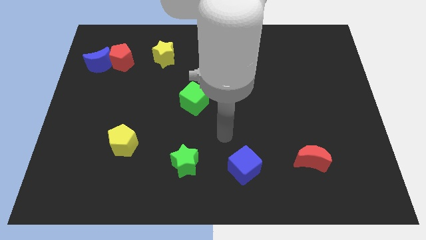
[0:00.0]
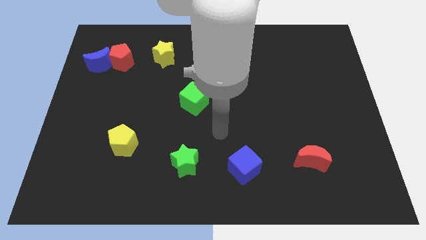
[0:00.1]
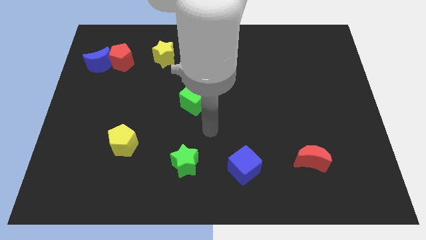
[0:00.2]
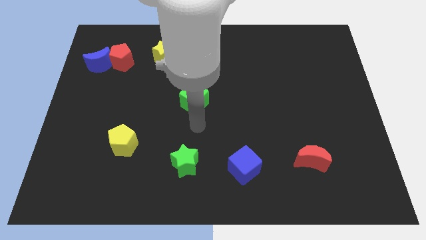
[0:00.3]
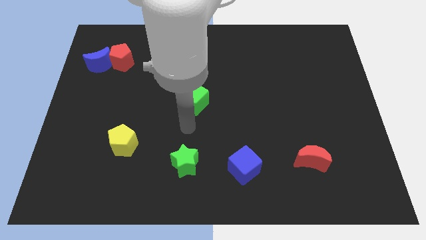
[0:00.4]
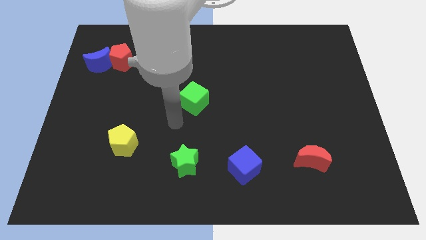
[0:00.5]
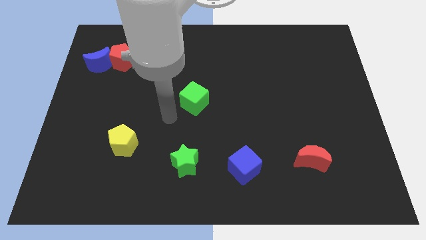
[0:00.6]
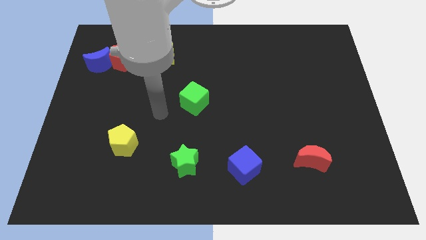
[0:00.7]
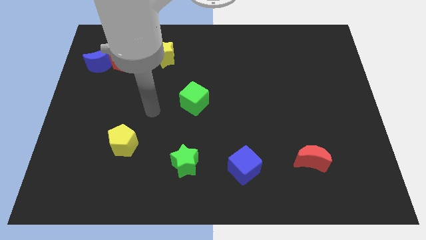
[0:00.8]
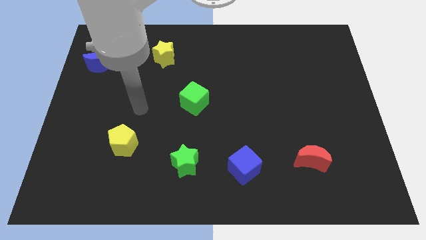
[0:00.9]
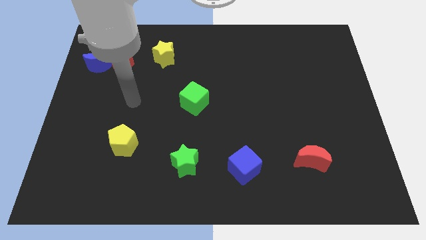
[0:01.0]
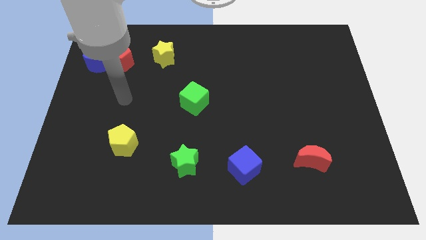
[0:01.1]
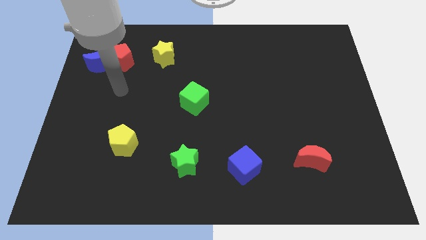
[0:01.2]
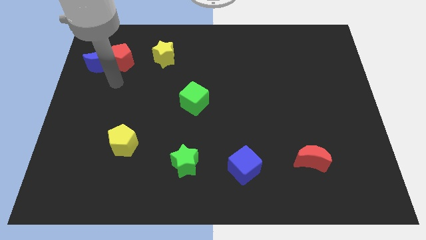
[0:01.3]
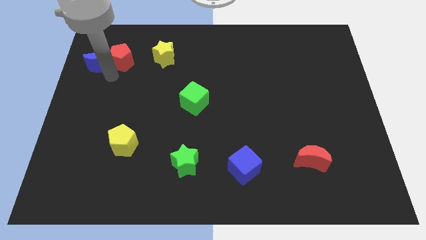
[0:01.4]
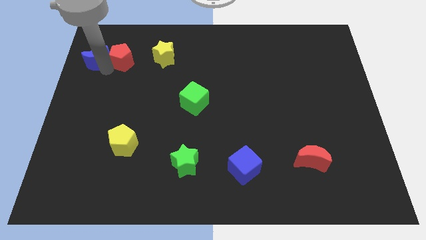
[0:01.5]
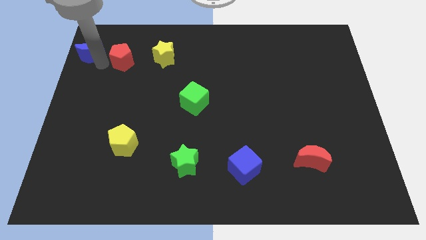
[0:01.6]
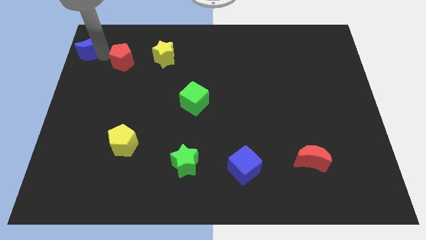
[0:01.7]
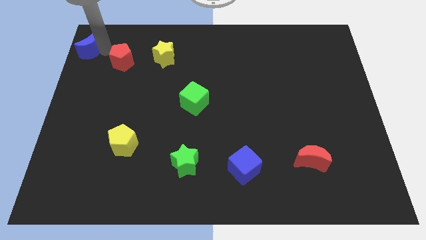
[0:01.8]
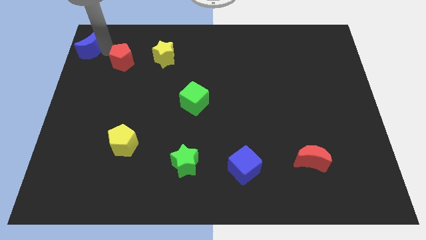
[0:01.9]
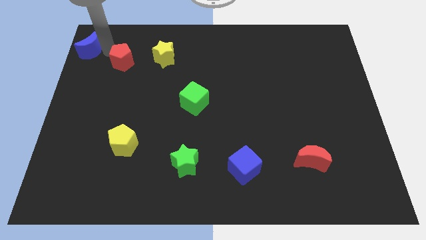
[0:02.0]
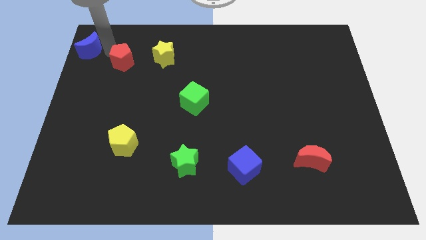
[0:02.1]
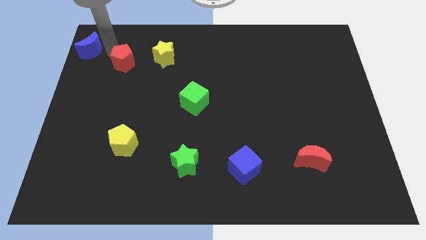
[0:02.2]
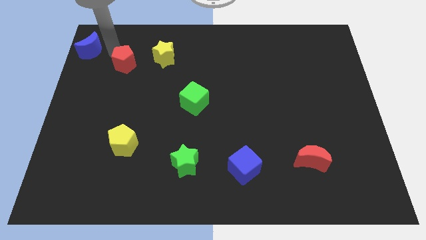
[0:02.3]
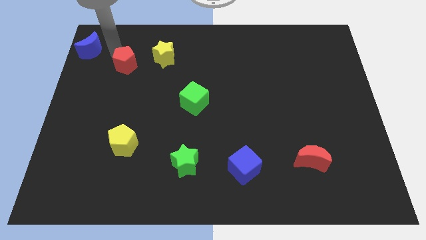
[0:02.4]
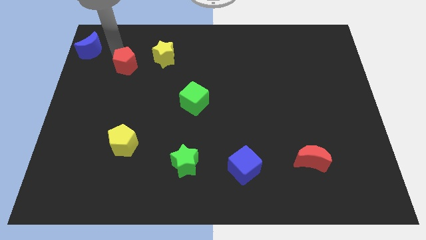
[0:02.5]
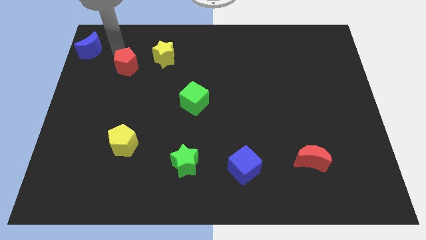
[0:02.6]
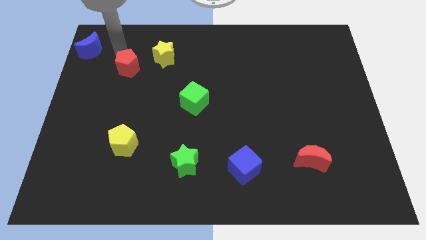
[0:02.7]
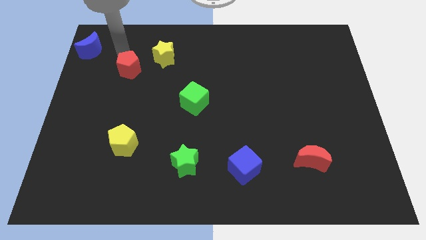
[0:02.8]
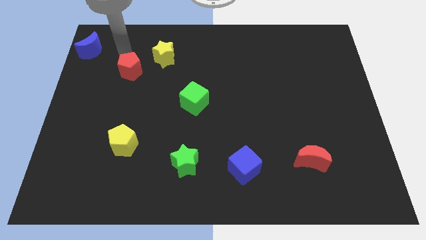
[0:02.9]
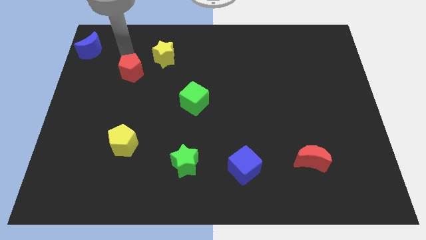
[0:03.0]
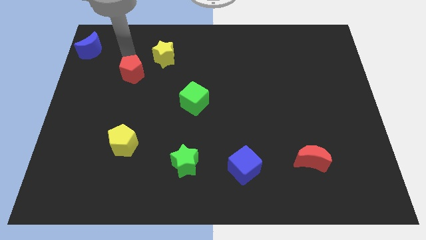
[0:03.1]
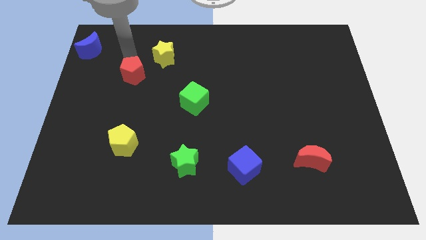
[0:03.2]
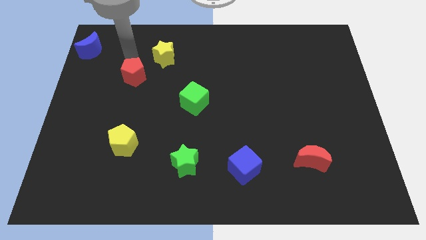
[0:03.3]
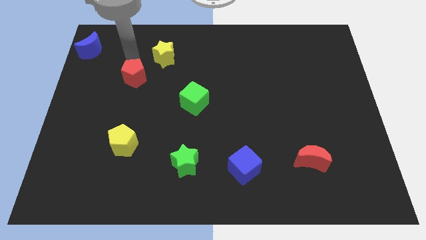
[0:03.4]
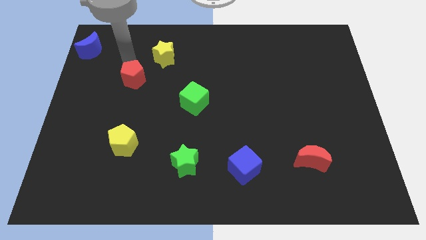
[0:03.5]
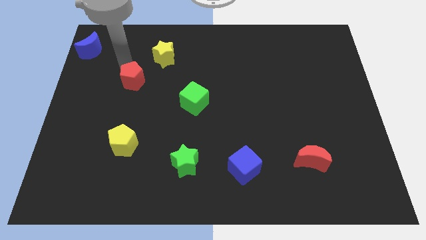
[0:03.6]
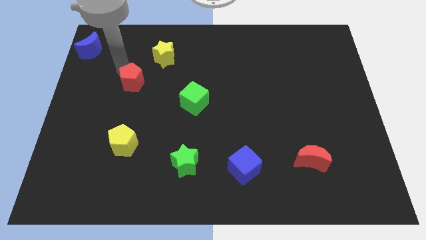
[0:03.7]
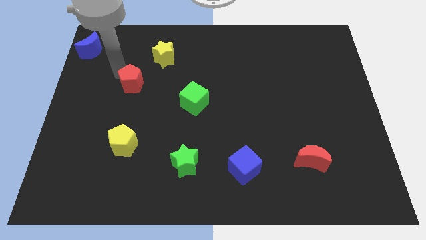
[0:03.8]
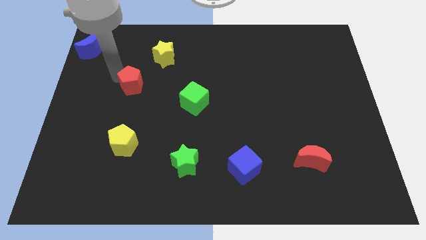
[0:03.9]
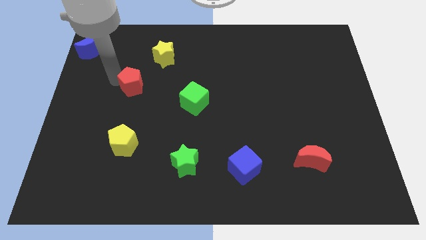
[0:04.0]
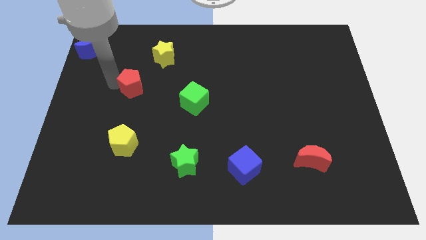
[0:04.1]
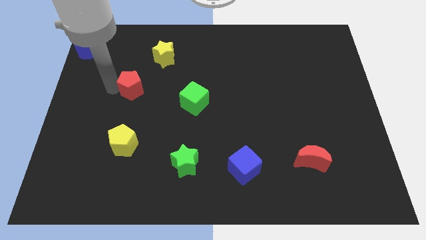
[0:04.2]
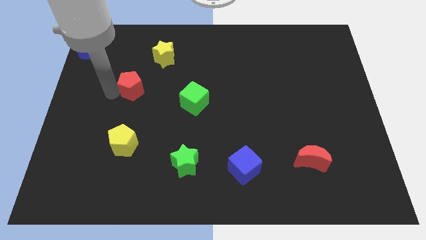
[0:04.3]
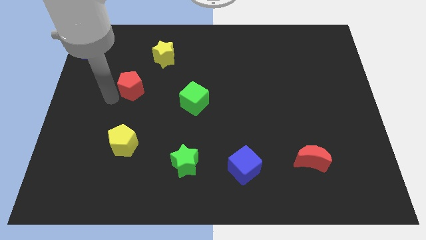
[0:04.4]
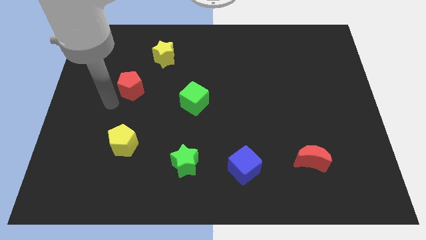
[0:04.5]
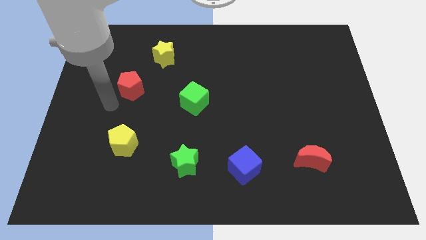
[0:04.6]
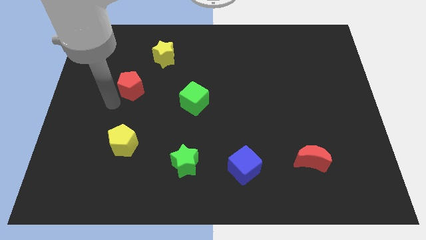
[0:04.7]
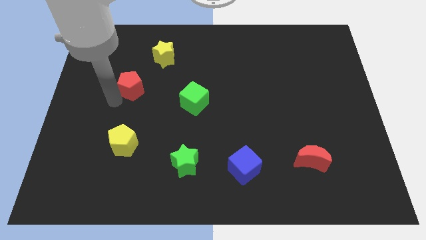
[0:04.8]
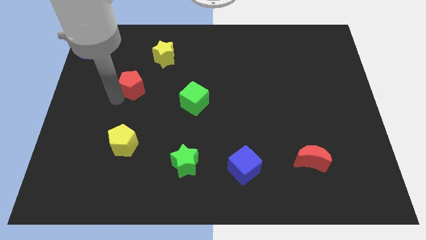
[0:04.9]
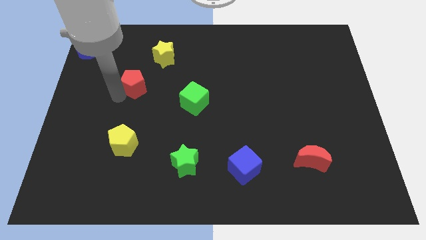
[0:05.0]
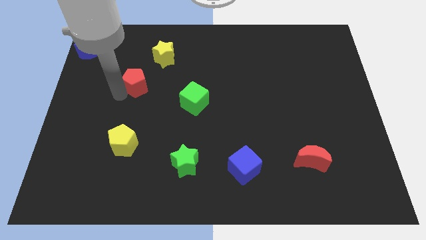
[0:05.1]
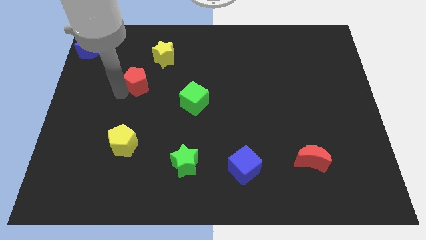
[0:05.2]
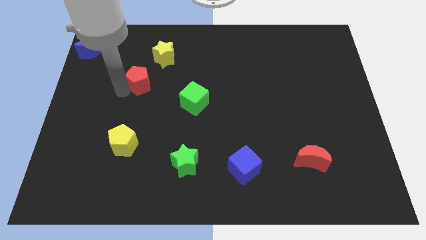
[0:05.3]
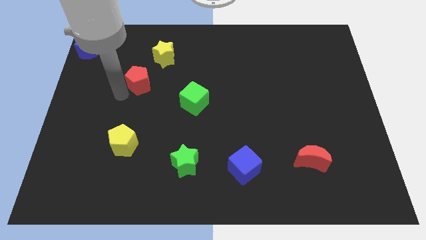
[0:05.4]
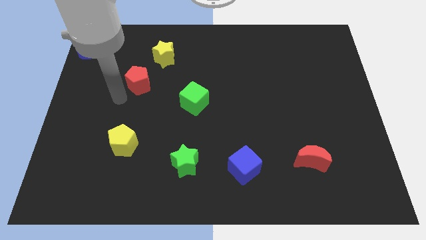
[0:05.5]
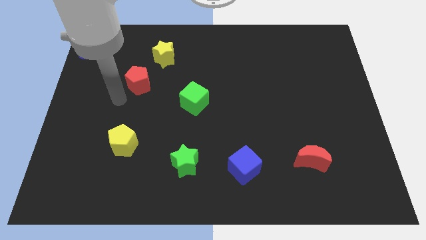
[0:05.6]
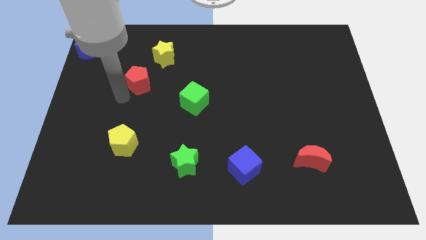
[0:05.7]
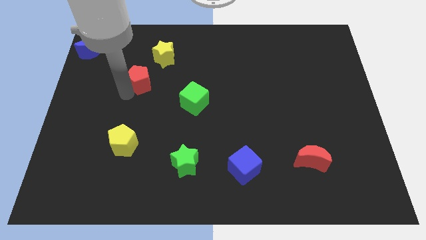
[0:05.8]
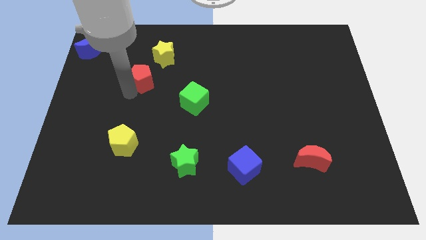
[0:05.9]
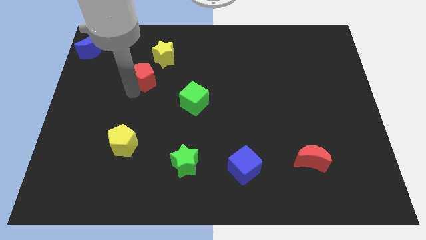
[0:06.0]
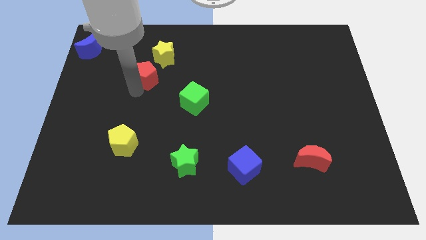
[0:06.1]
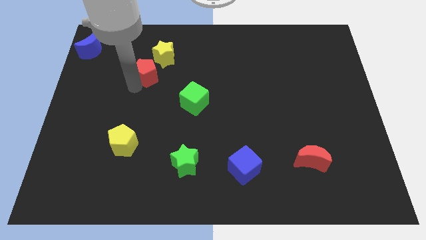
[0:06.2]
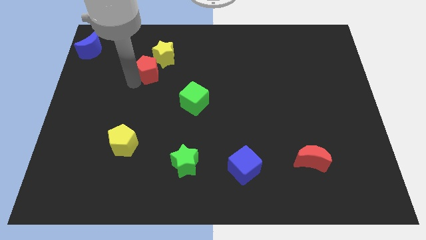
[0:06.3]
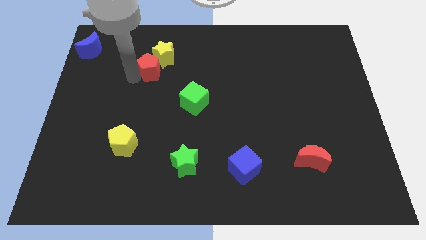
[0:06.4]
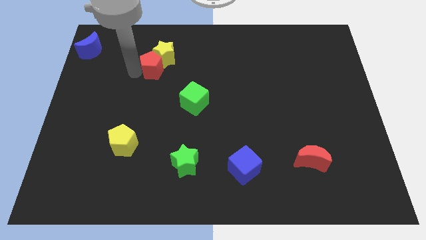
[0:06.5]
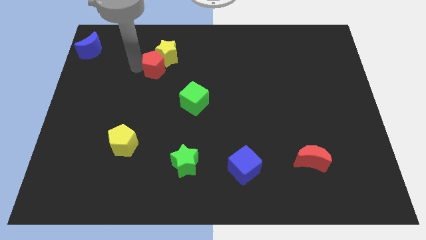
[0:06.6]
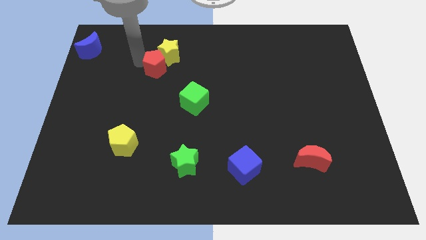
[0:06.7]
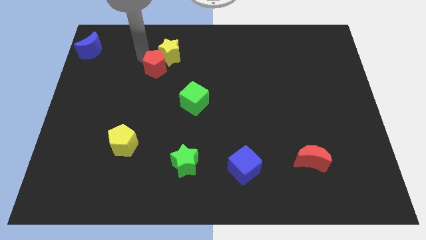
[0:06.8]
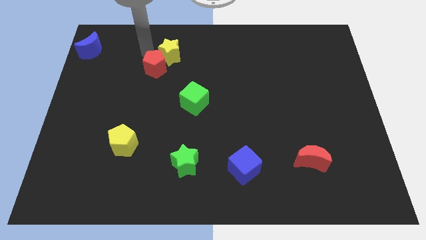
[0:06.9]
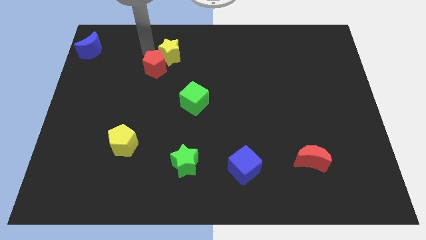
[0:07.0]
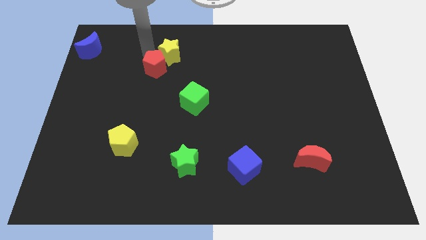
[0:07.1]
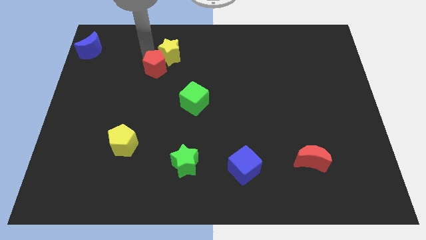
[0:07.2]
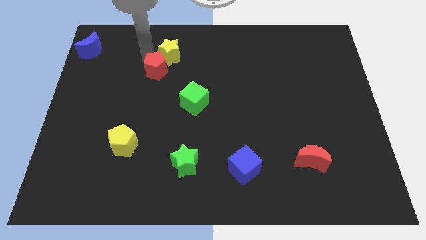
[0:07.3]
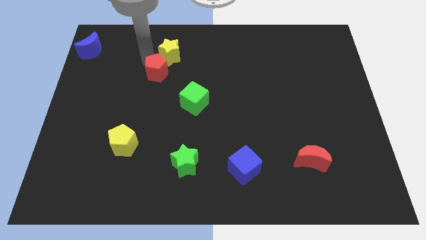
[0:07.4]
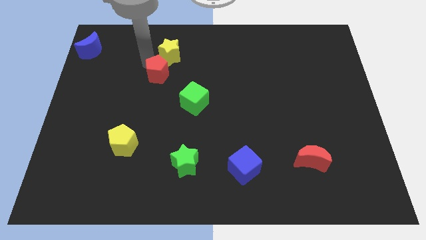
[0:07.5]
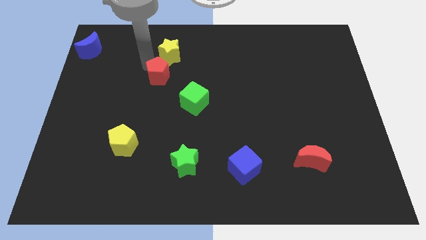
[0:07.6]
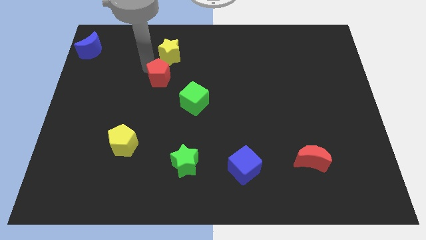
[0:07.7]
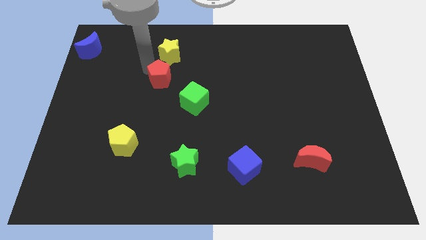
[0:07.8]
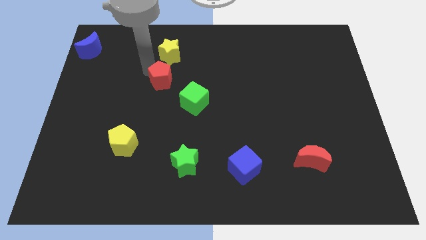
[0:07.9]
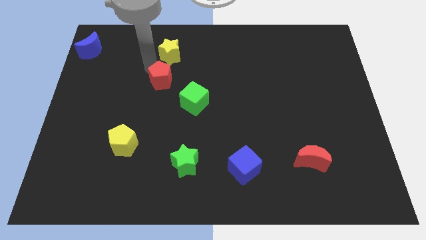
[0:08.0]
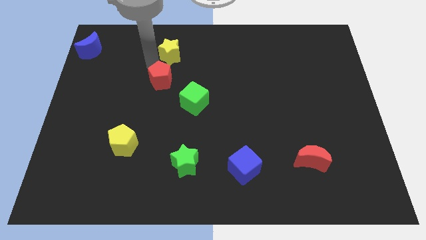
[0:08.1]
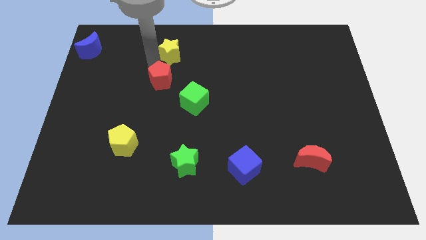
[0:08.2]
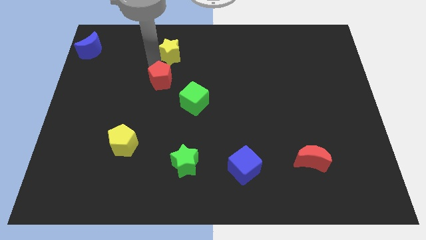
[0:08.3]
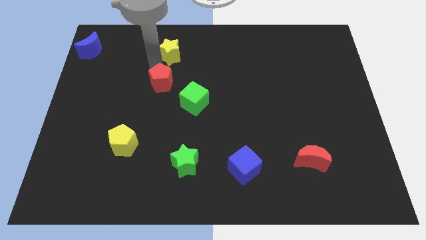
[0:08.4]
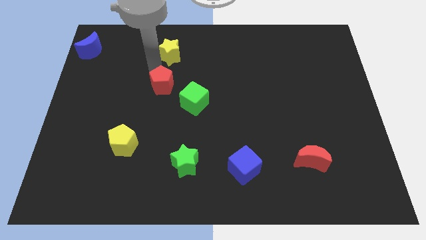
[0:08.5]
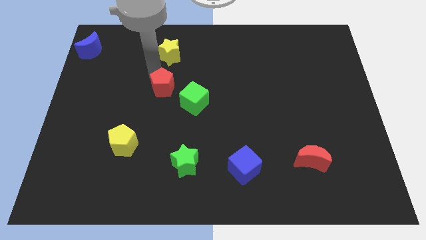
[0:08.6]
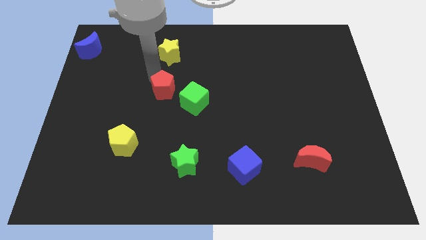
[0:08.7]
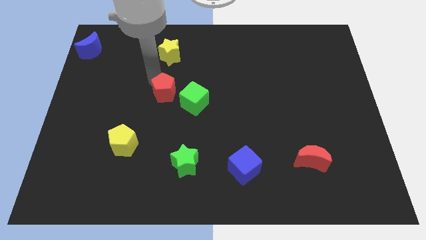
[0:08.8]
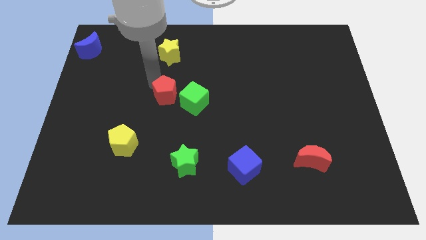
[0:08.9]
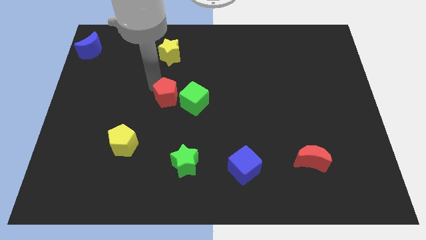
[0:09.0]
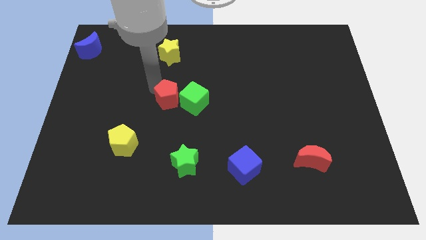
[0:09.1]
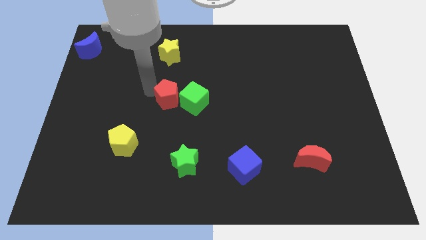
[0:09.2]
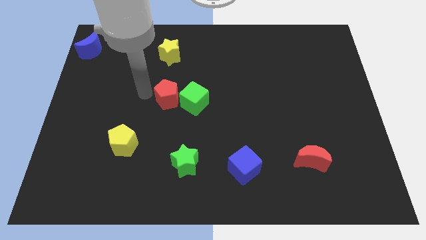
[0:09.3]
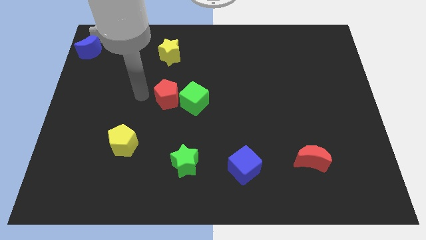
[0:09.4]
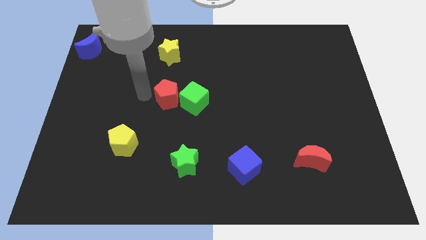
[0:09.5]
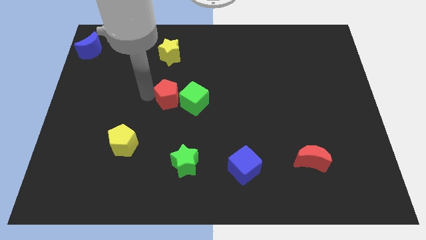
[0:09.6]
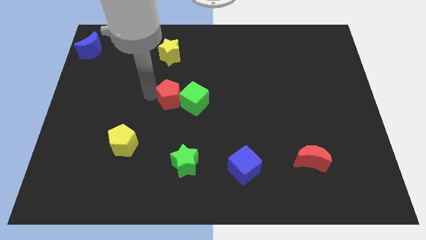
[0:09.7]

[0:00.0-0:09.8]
put the red pentagon close to the green cube
